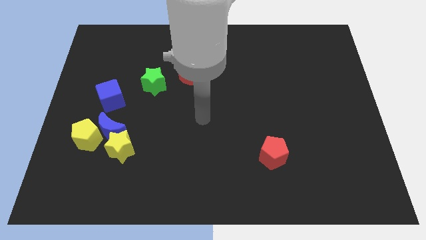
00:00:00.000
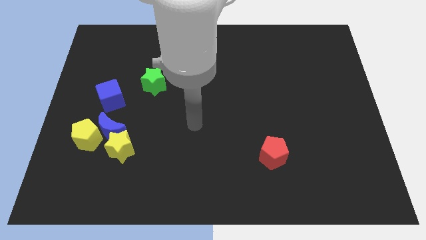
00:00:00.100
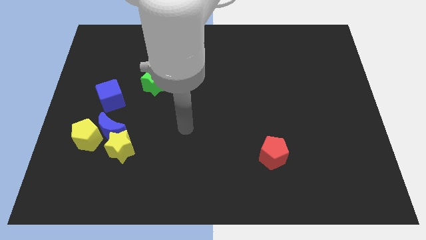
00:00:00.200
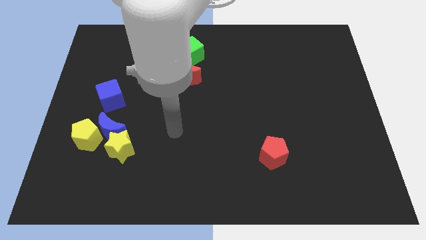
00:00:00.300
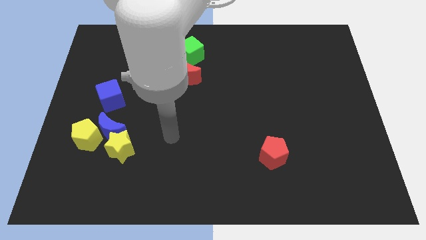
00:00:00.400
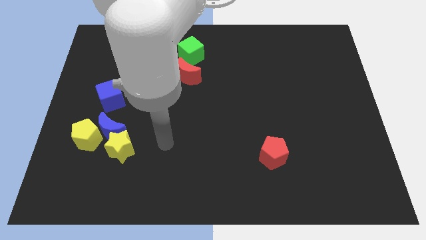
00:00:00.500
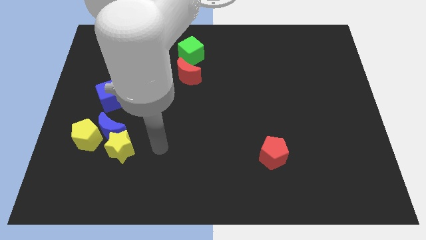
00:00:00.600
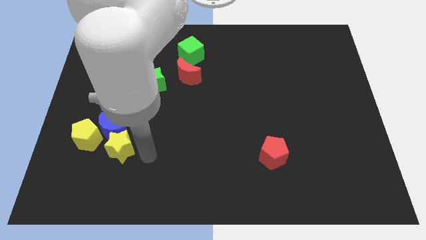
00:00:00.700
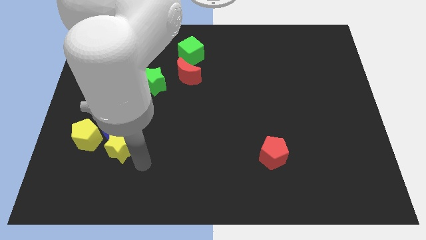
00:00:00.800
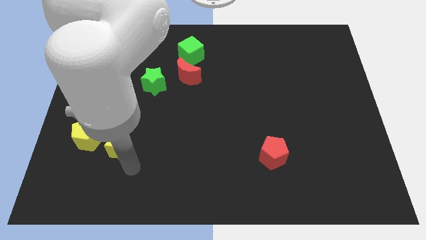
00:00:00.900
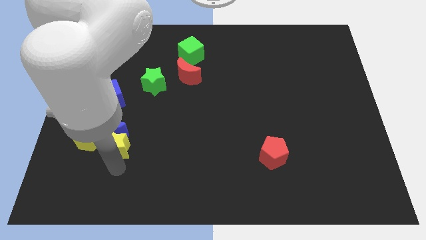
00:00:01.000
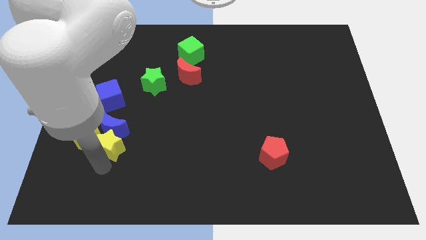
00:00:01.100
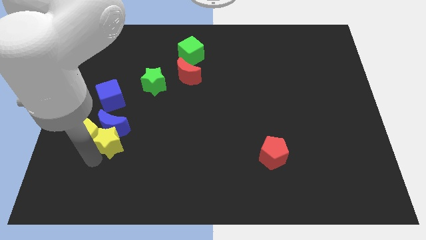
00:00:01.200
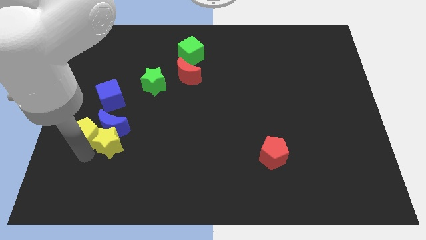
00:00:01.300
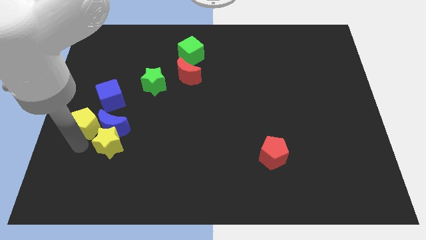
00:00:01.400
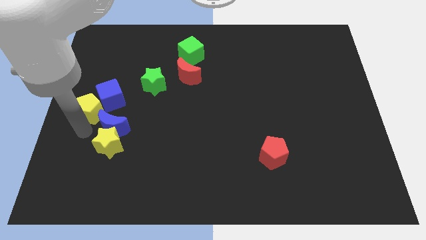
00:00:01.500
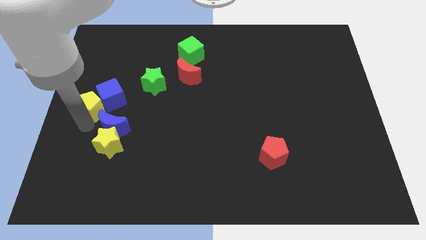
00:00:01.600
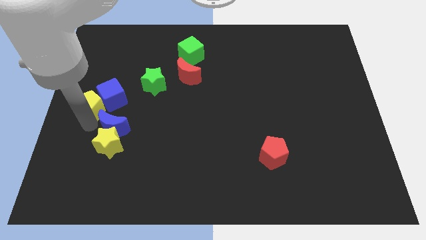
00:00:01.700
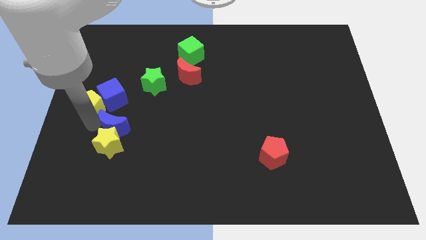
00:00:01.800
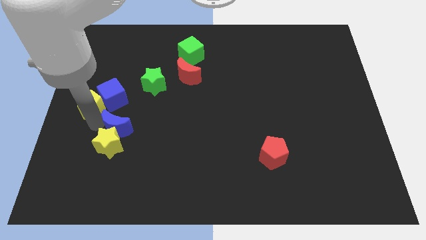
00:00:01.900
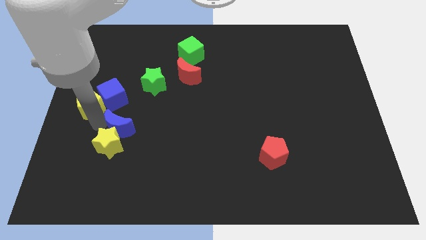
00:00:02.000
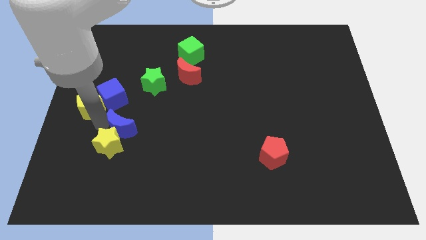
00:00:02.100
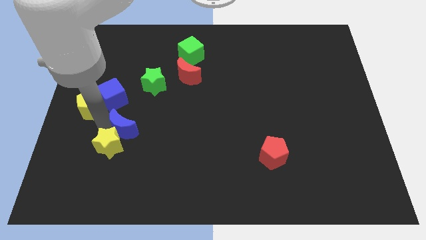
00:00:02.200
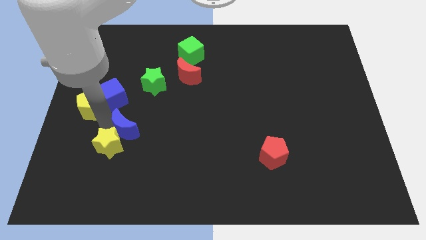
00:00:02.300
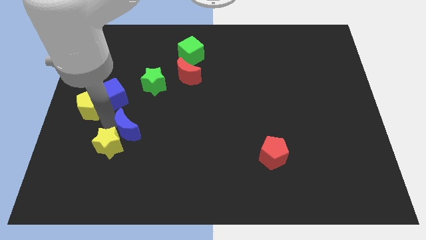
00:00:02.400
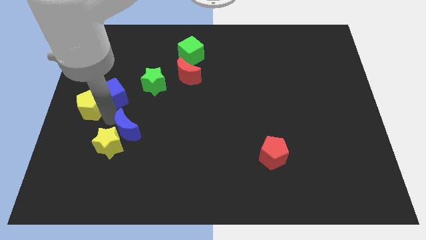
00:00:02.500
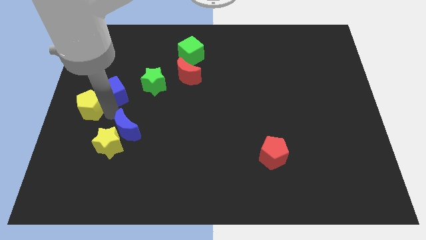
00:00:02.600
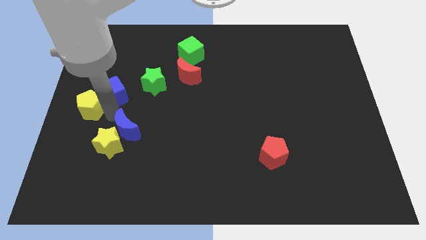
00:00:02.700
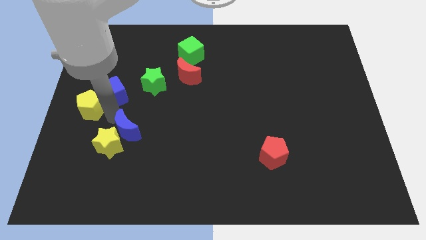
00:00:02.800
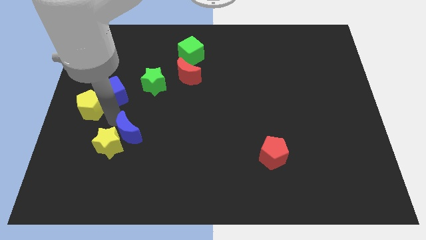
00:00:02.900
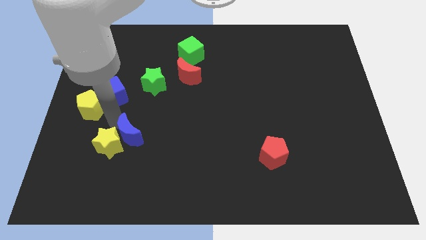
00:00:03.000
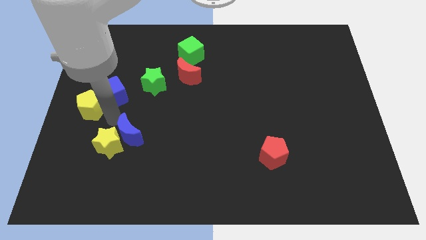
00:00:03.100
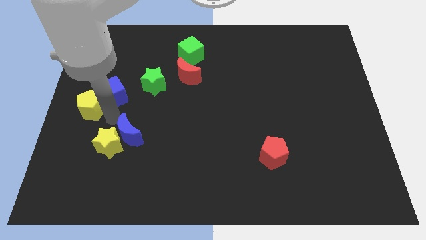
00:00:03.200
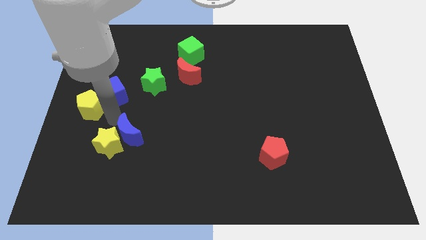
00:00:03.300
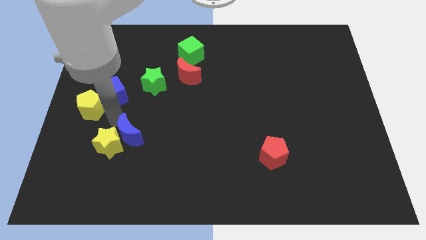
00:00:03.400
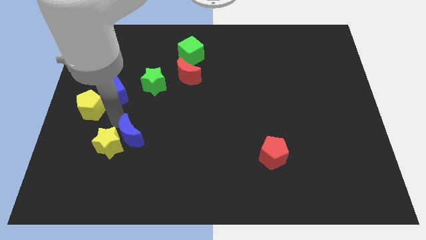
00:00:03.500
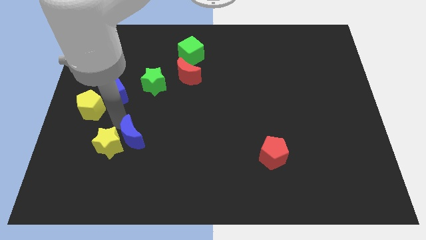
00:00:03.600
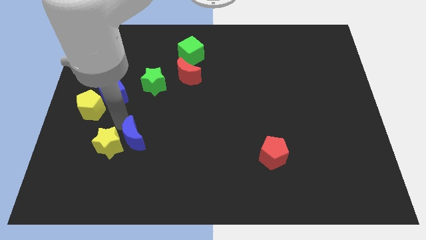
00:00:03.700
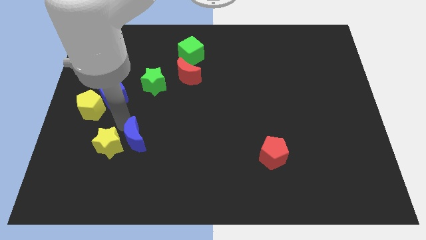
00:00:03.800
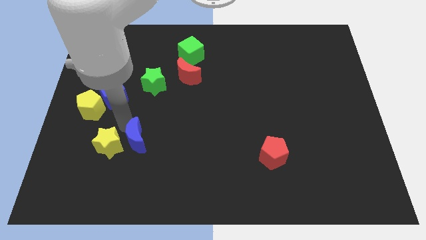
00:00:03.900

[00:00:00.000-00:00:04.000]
pull the blue moon apart from the yellow pentagon, yellow star, and blue cube

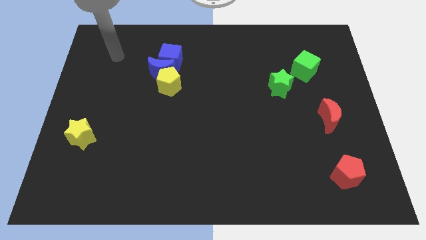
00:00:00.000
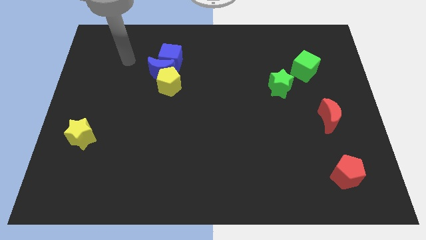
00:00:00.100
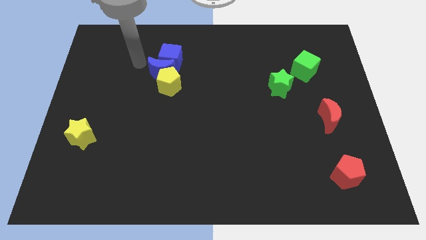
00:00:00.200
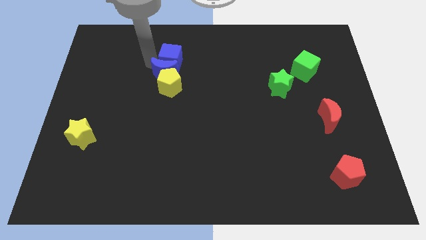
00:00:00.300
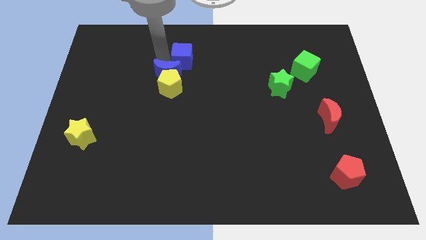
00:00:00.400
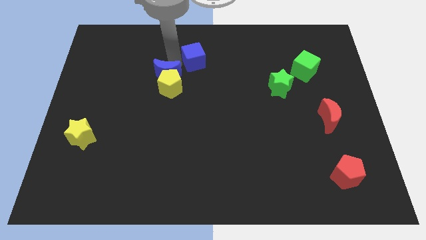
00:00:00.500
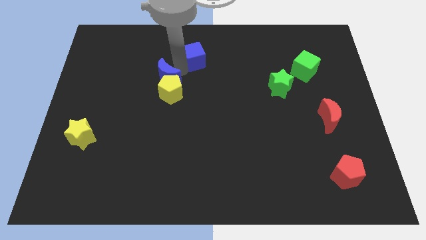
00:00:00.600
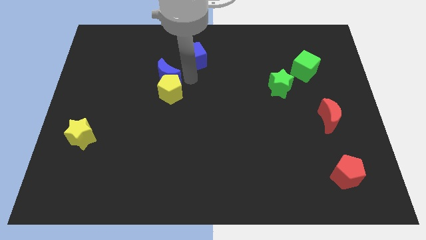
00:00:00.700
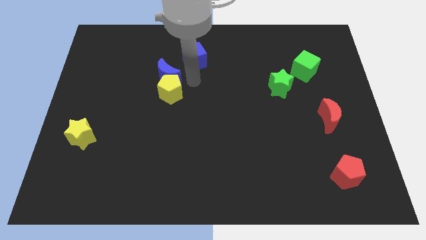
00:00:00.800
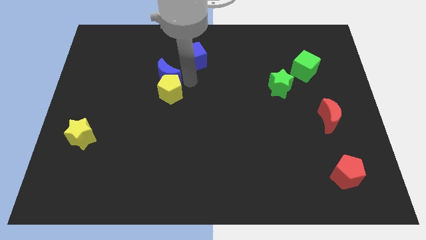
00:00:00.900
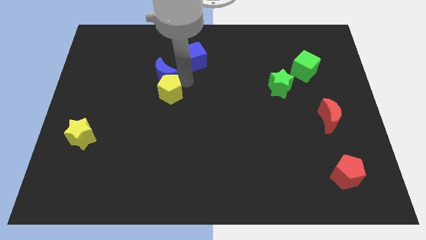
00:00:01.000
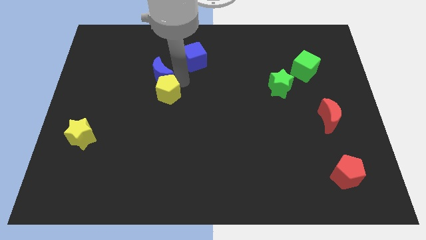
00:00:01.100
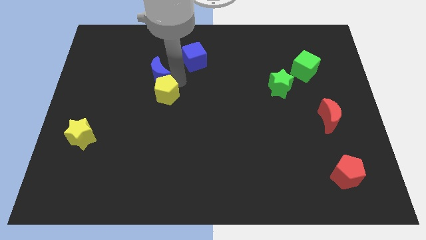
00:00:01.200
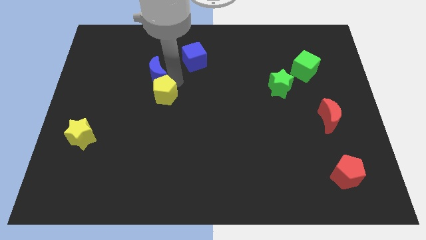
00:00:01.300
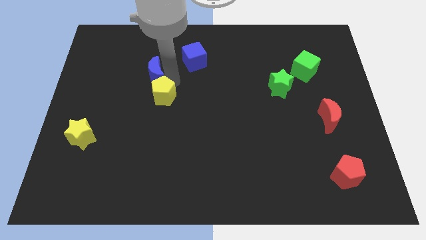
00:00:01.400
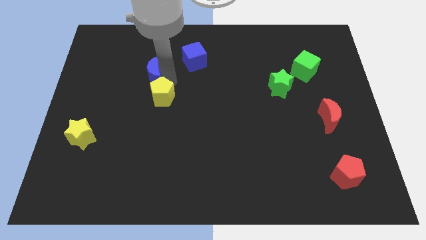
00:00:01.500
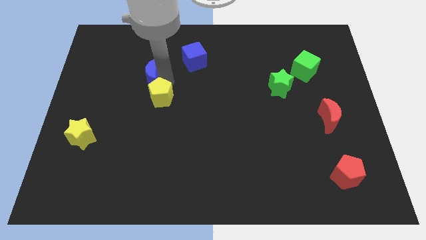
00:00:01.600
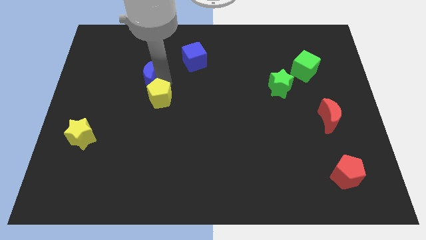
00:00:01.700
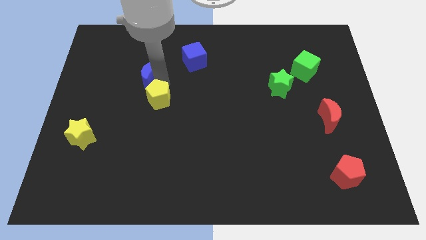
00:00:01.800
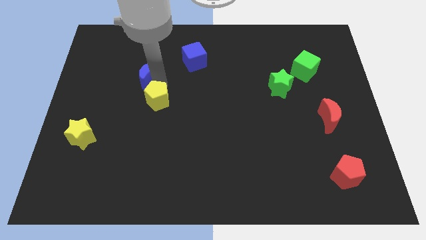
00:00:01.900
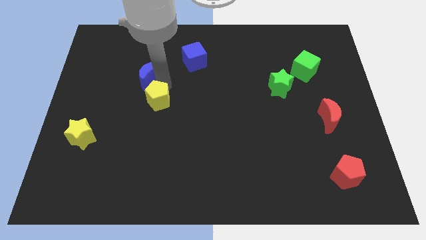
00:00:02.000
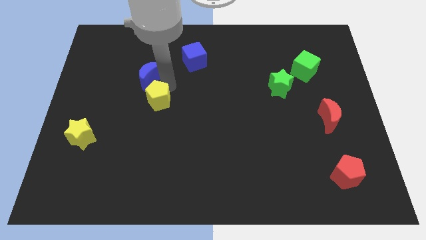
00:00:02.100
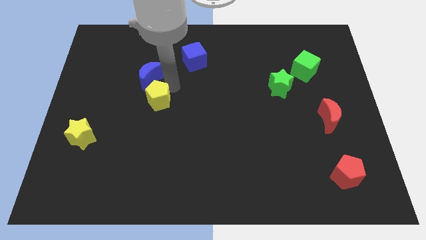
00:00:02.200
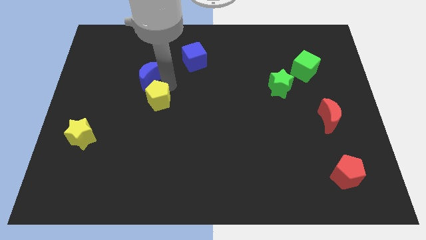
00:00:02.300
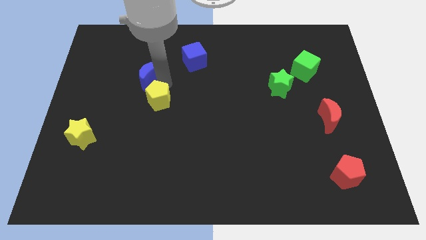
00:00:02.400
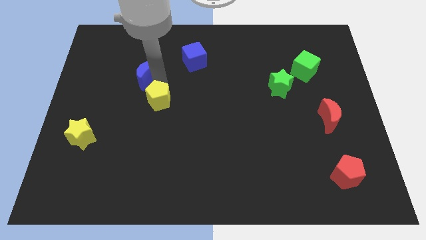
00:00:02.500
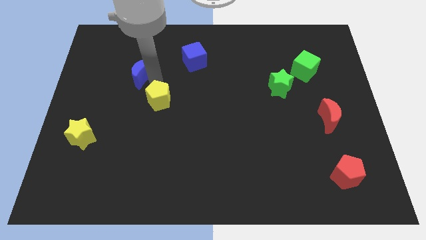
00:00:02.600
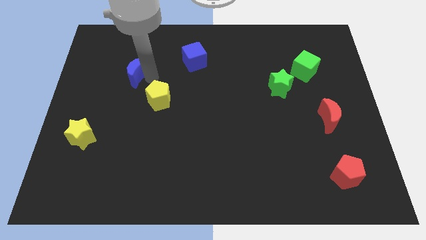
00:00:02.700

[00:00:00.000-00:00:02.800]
pull the blue moon apart from the blue cube and yellow pentagon

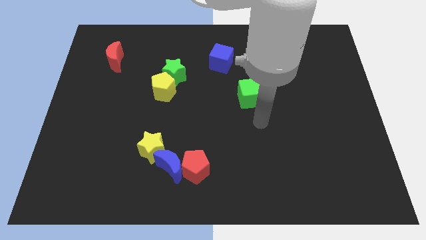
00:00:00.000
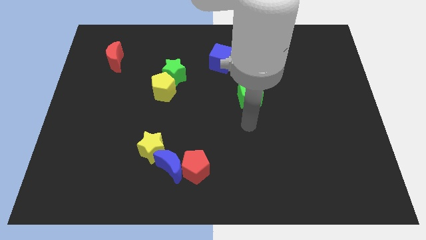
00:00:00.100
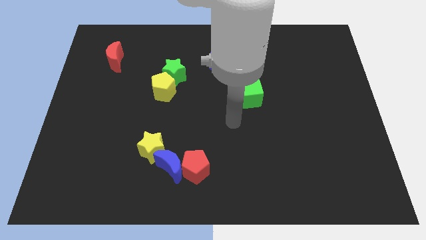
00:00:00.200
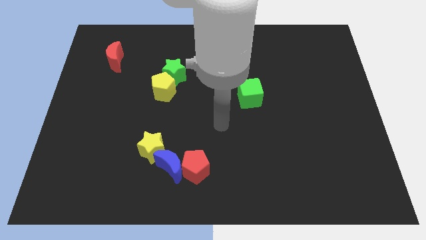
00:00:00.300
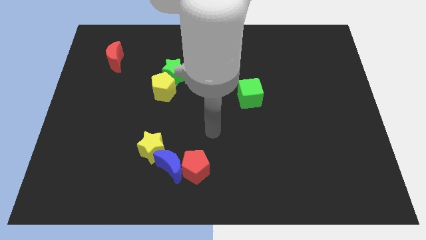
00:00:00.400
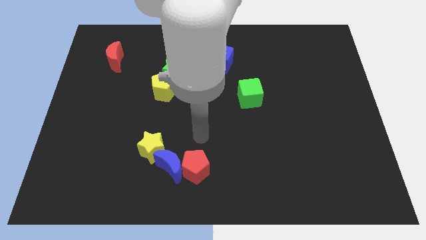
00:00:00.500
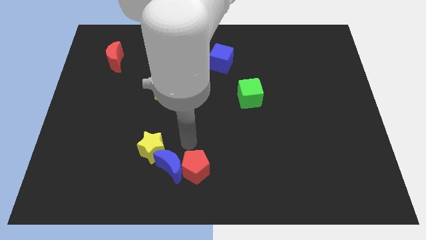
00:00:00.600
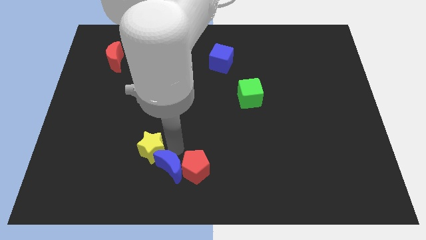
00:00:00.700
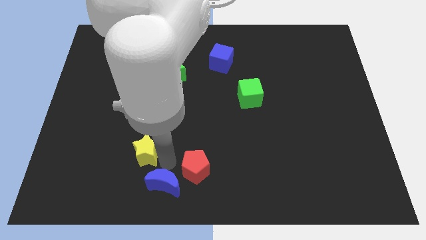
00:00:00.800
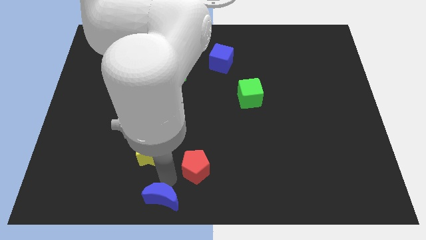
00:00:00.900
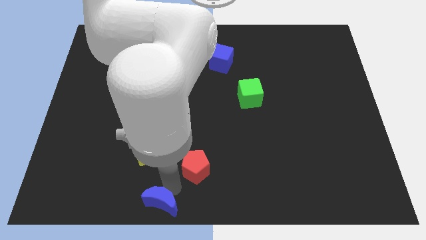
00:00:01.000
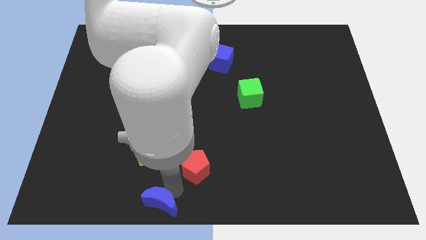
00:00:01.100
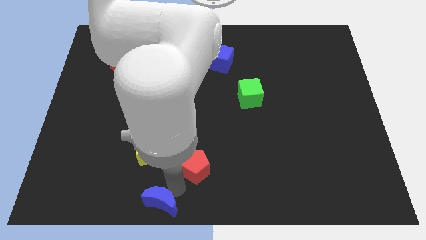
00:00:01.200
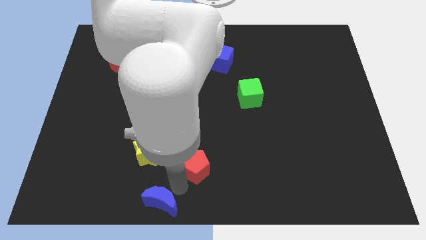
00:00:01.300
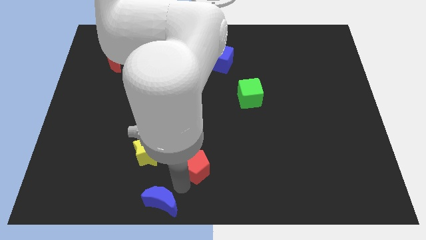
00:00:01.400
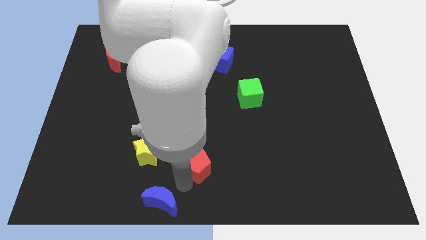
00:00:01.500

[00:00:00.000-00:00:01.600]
move the red pentagon away from the blue moon

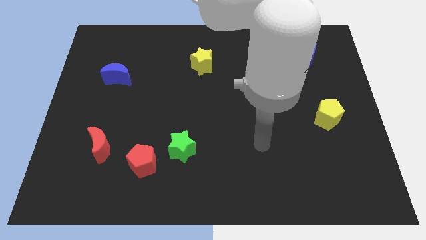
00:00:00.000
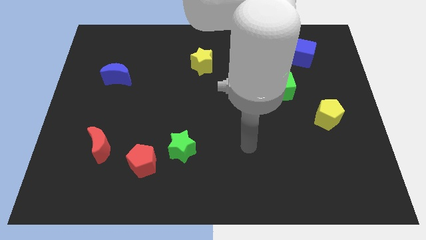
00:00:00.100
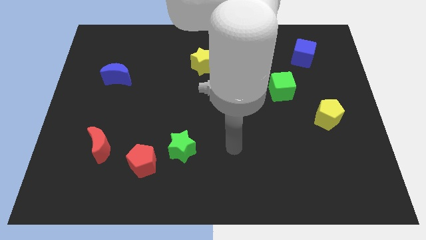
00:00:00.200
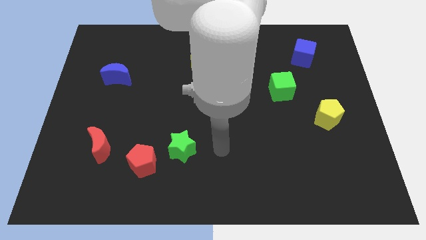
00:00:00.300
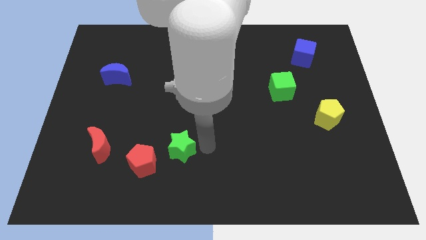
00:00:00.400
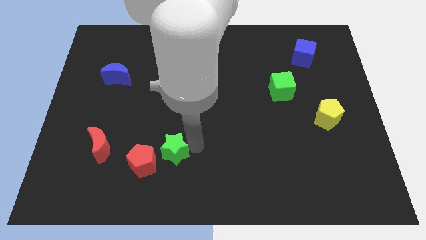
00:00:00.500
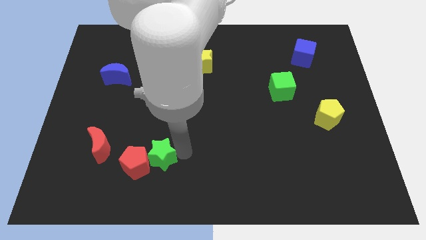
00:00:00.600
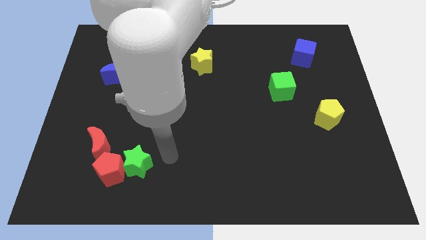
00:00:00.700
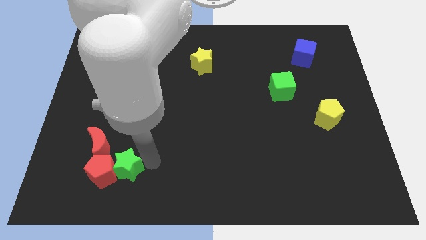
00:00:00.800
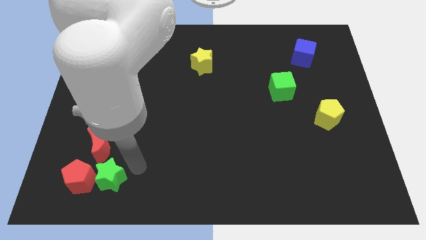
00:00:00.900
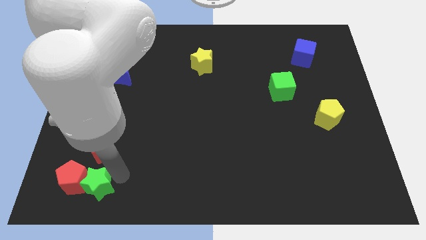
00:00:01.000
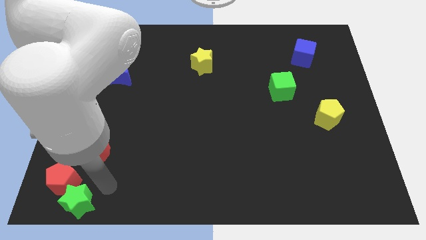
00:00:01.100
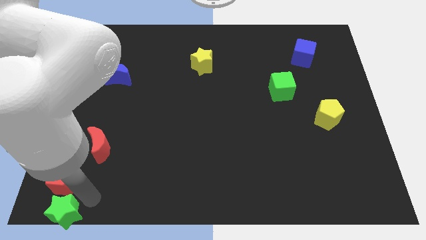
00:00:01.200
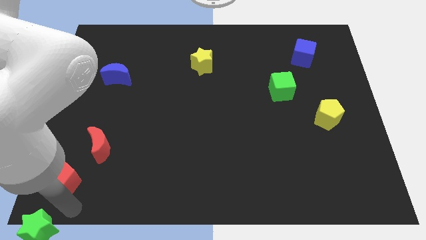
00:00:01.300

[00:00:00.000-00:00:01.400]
pull the red pentagon apart from the green star
